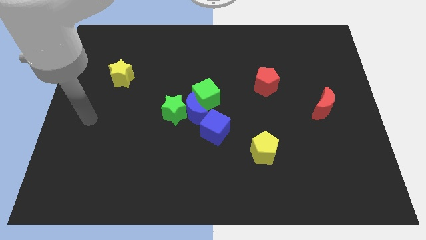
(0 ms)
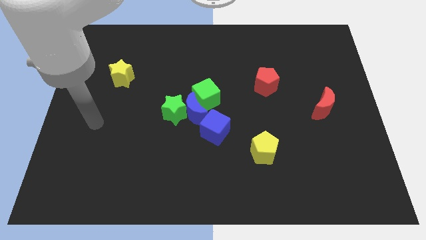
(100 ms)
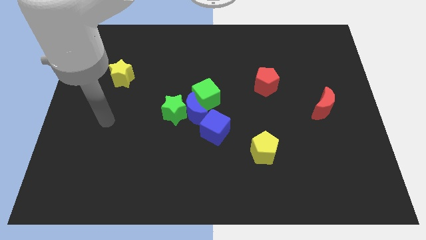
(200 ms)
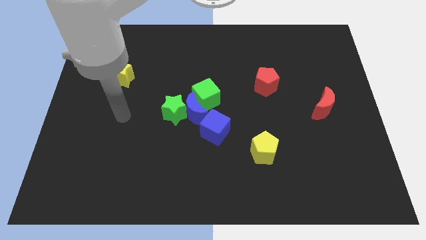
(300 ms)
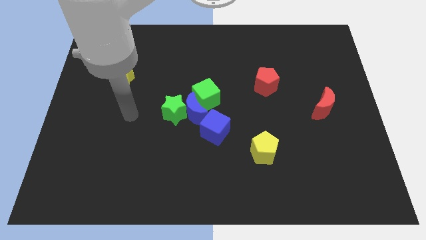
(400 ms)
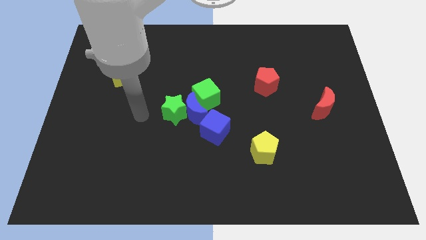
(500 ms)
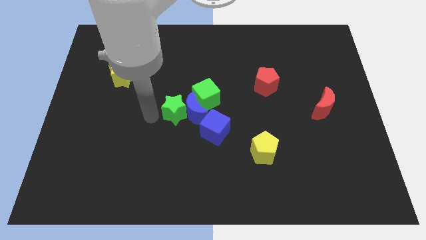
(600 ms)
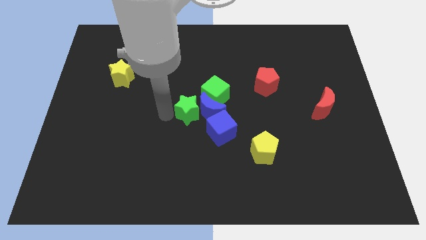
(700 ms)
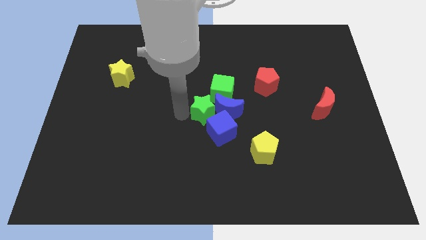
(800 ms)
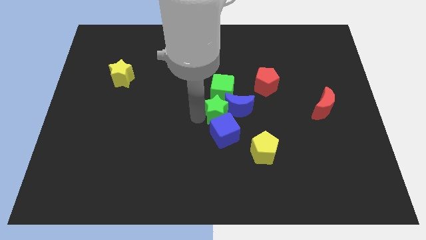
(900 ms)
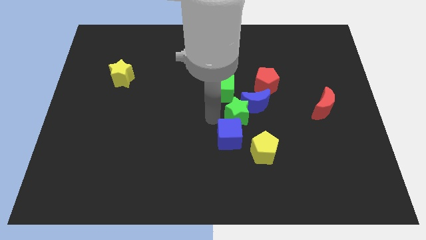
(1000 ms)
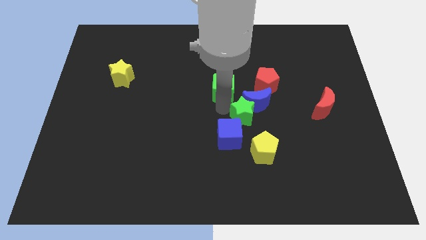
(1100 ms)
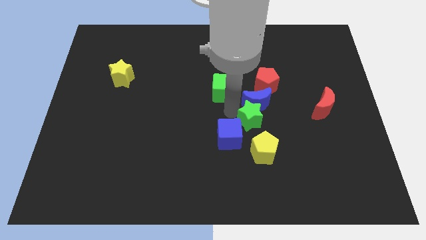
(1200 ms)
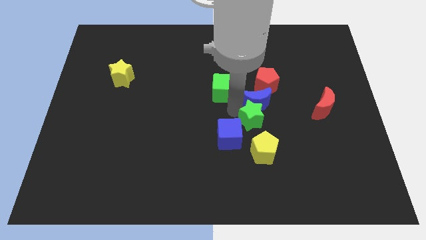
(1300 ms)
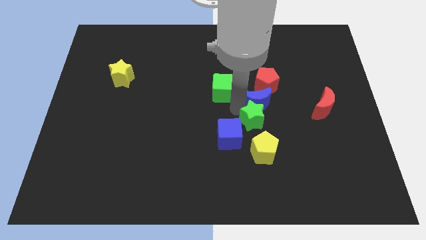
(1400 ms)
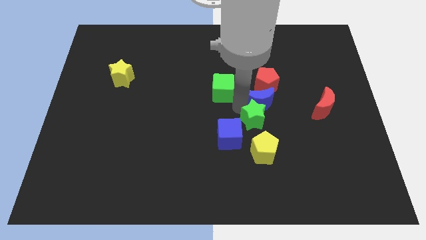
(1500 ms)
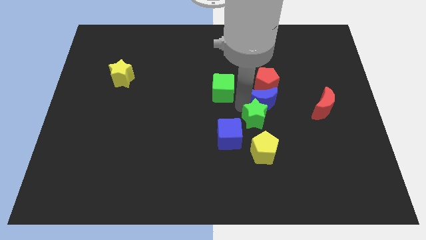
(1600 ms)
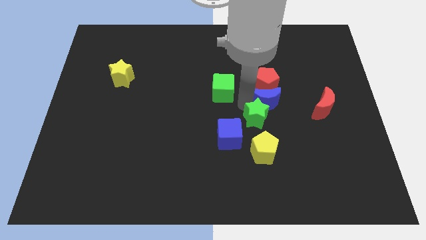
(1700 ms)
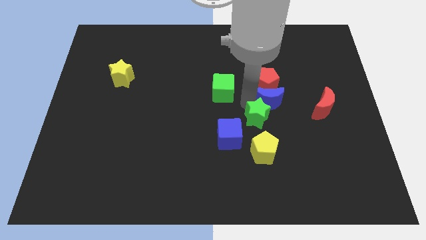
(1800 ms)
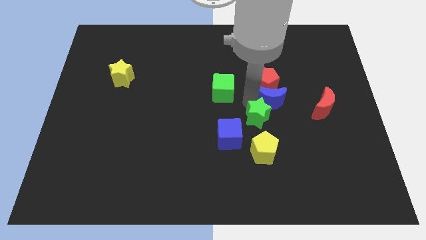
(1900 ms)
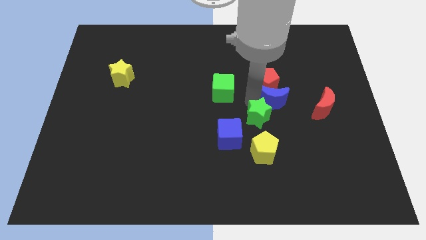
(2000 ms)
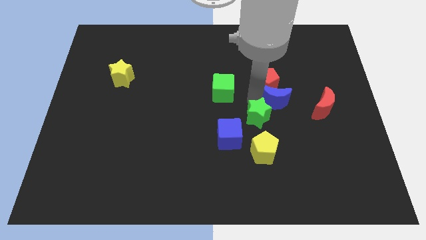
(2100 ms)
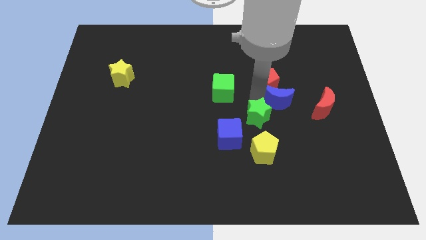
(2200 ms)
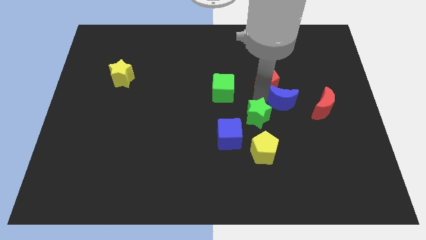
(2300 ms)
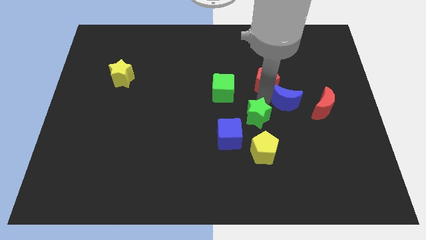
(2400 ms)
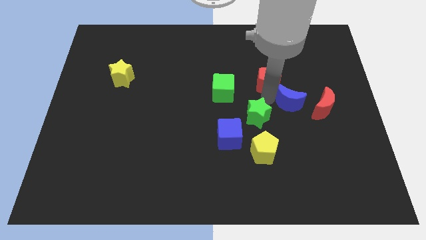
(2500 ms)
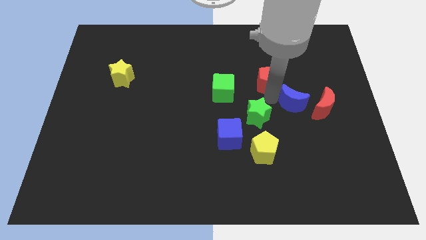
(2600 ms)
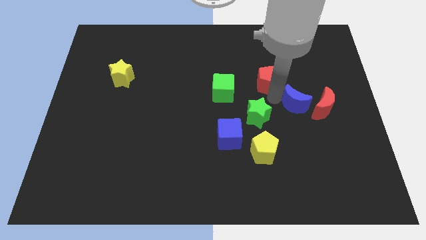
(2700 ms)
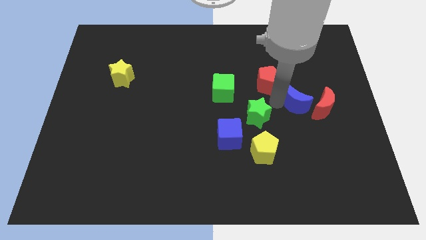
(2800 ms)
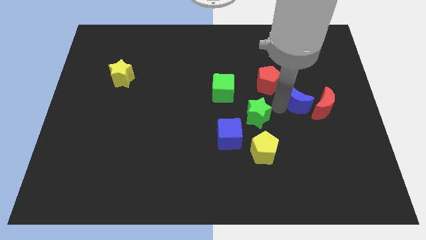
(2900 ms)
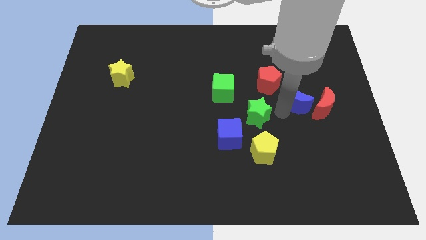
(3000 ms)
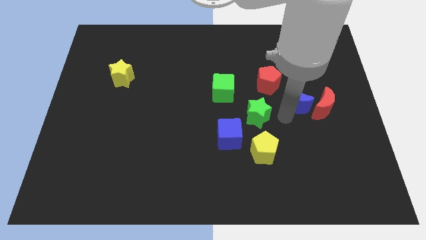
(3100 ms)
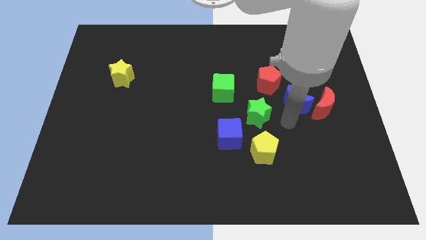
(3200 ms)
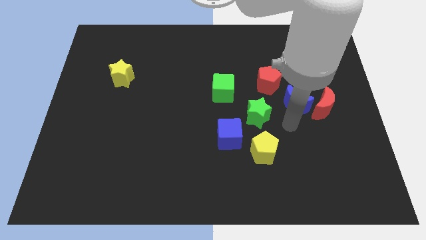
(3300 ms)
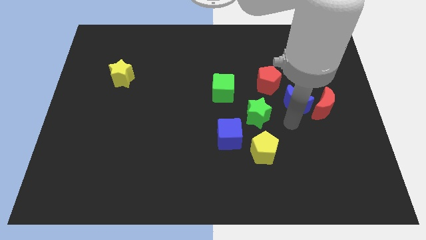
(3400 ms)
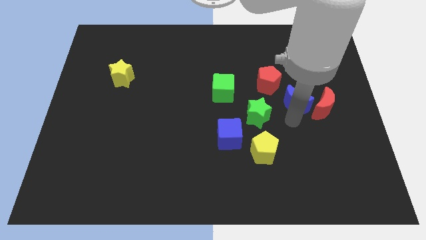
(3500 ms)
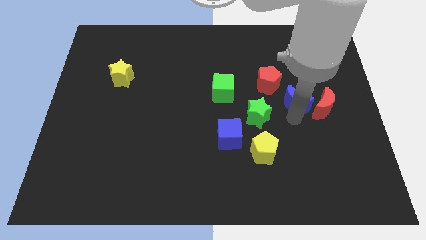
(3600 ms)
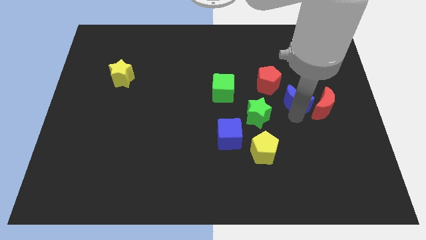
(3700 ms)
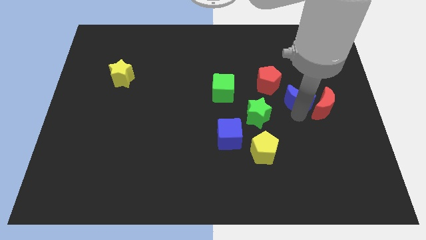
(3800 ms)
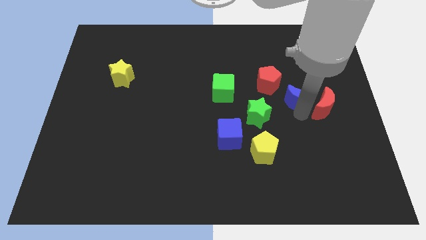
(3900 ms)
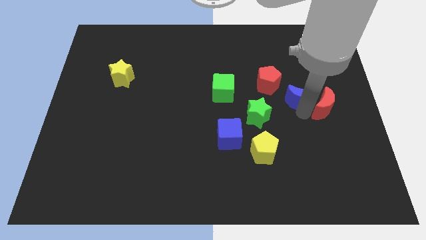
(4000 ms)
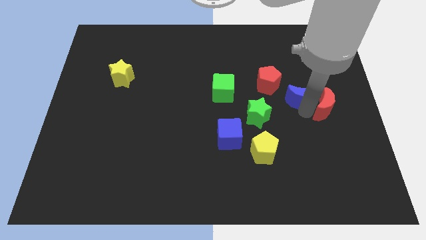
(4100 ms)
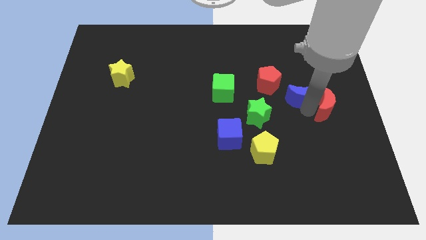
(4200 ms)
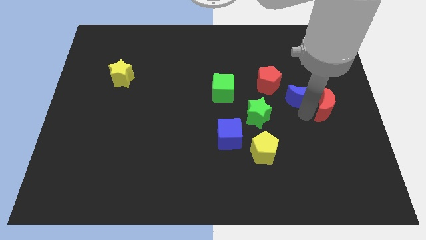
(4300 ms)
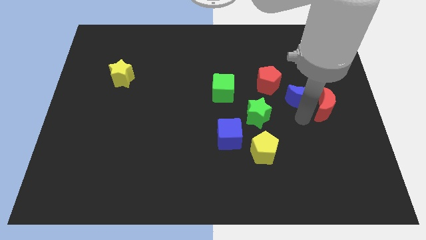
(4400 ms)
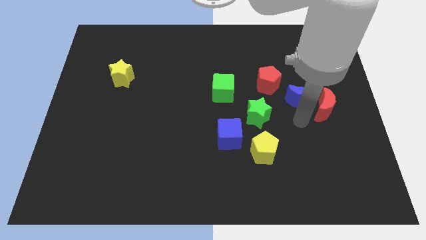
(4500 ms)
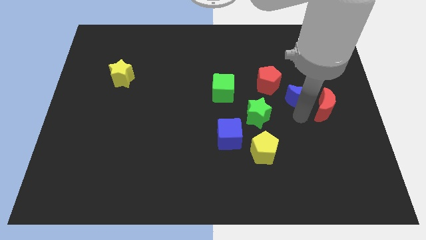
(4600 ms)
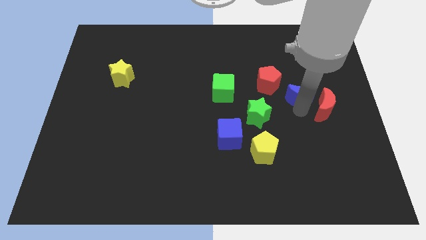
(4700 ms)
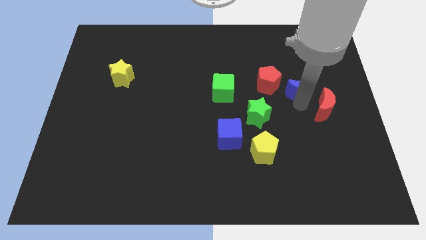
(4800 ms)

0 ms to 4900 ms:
move the blue moon to the top side of the red moon

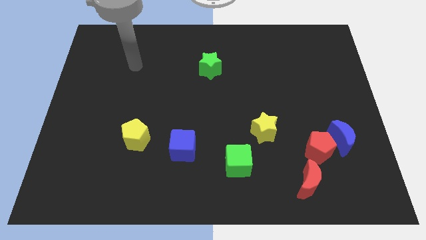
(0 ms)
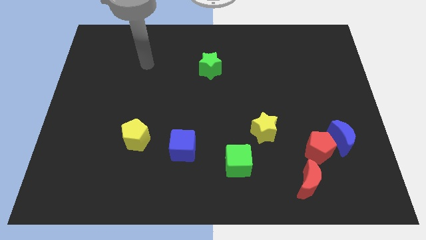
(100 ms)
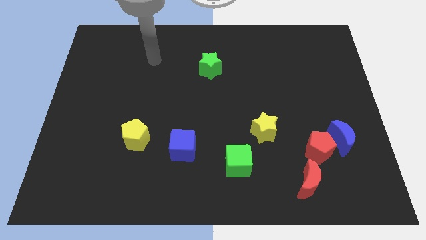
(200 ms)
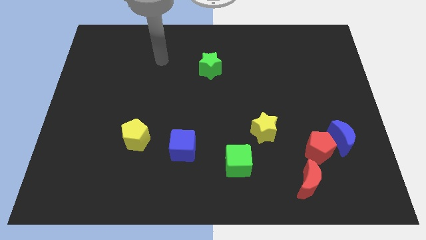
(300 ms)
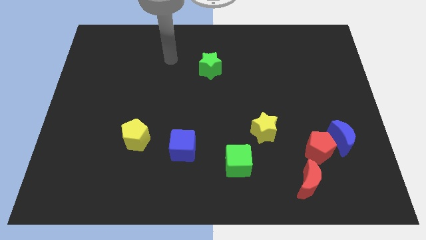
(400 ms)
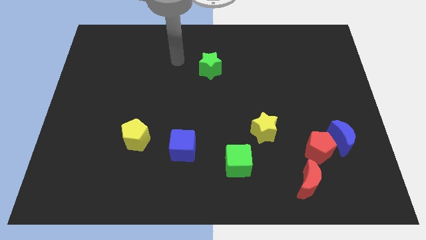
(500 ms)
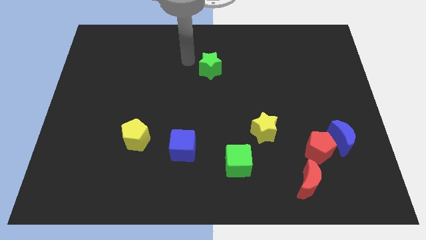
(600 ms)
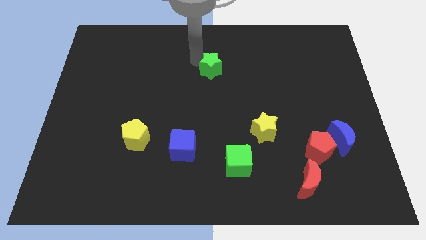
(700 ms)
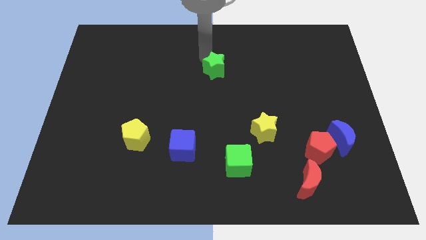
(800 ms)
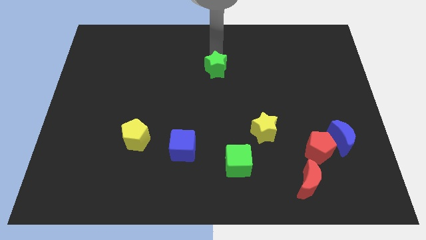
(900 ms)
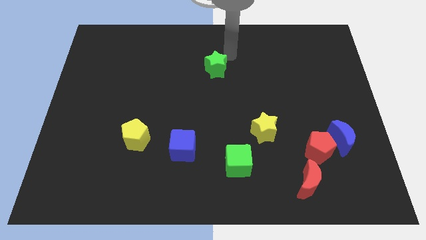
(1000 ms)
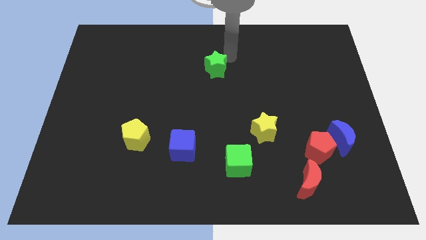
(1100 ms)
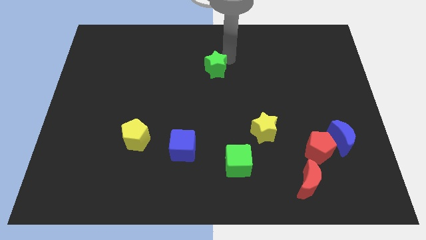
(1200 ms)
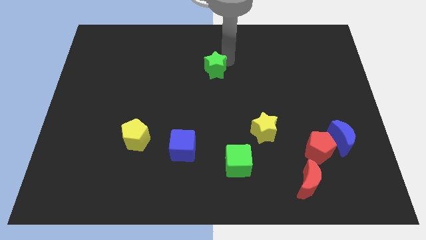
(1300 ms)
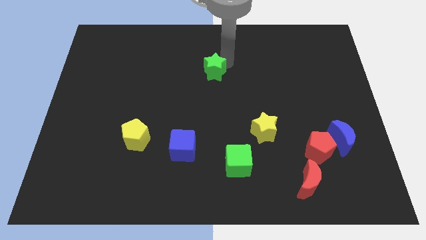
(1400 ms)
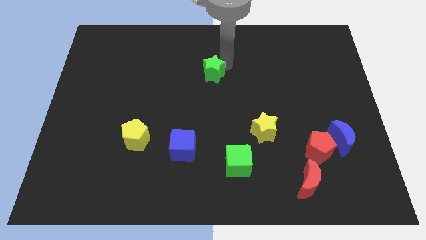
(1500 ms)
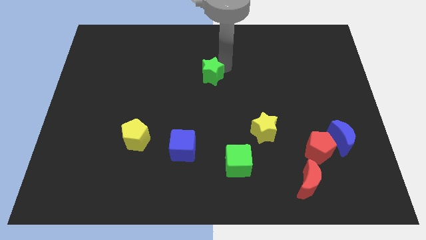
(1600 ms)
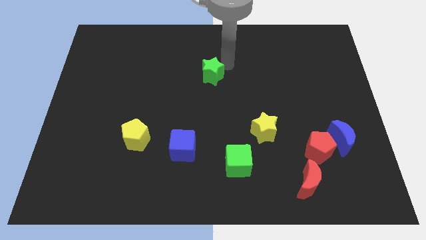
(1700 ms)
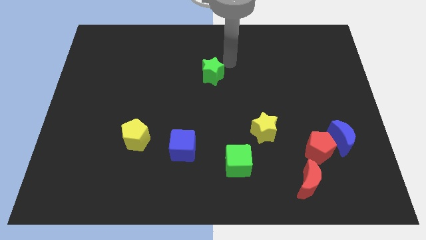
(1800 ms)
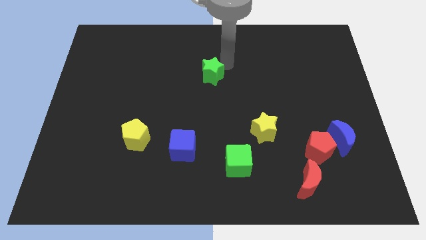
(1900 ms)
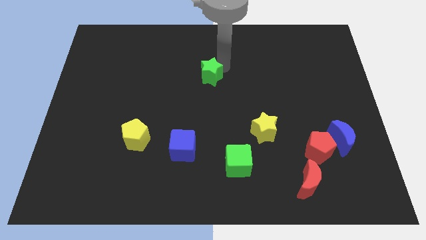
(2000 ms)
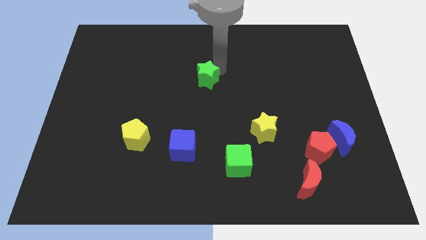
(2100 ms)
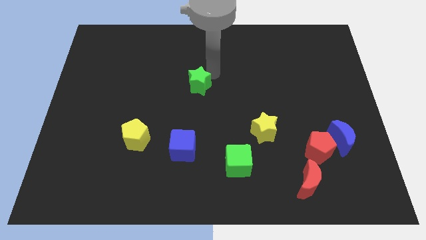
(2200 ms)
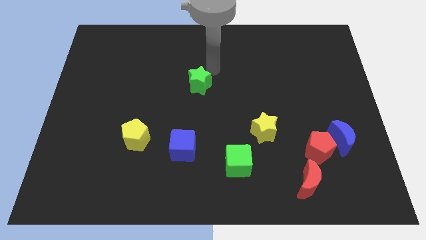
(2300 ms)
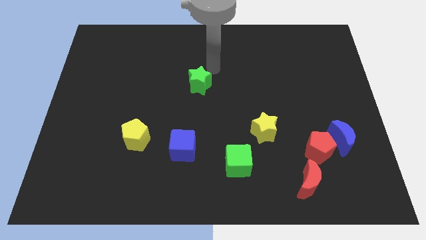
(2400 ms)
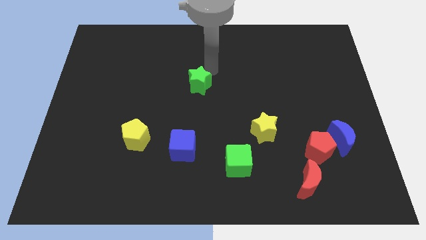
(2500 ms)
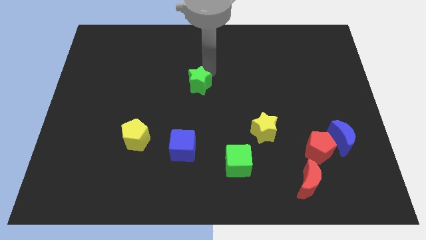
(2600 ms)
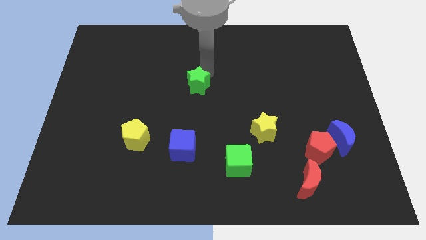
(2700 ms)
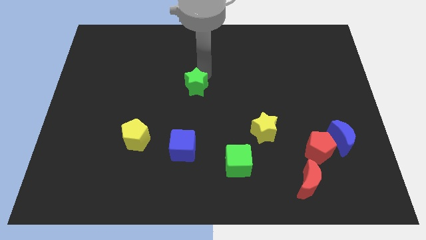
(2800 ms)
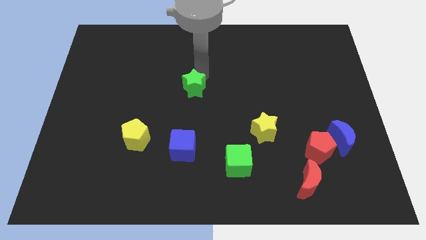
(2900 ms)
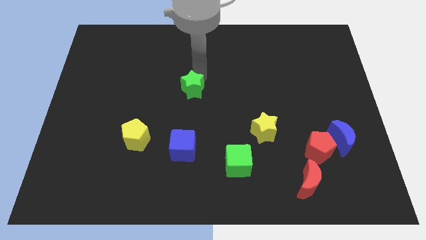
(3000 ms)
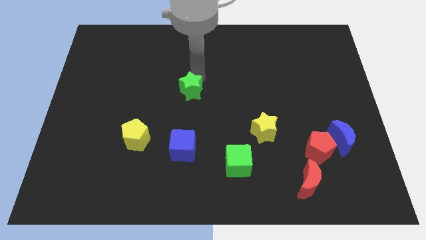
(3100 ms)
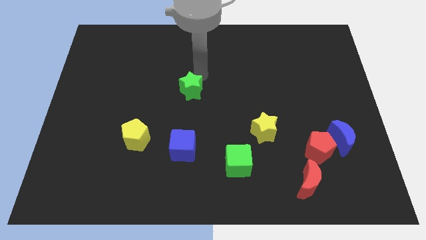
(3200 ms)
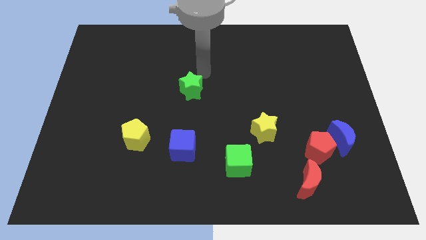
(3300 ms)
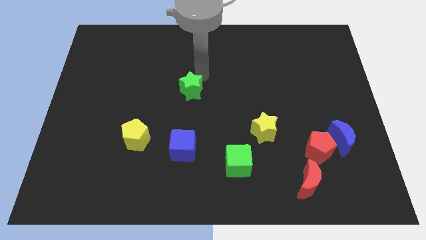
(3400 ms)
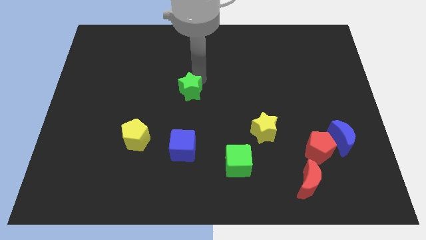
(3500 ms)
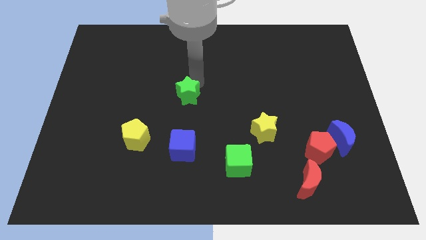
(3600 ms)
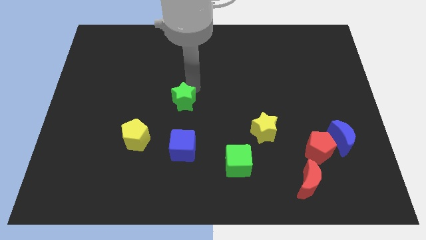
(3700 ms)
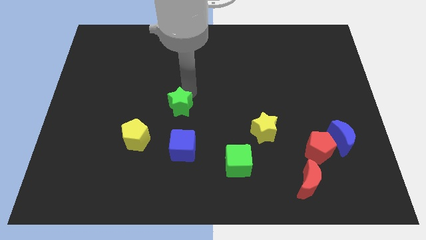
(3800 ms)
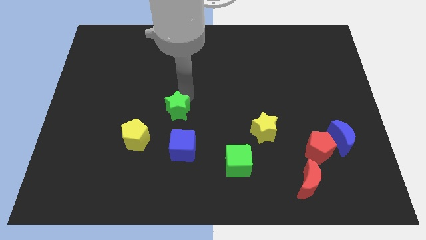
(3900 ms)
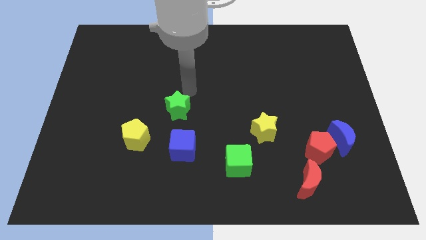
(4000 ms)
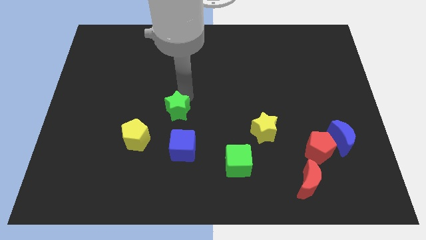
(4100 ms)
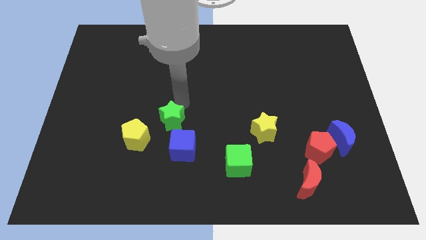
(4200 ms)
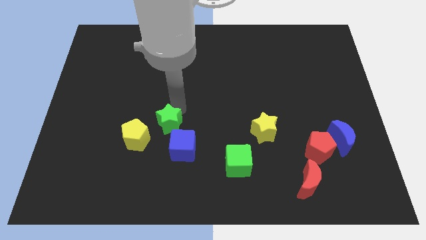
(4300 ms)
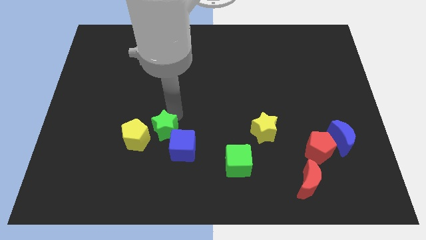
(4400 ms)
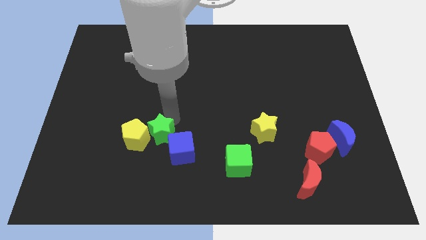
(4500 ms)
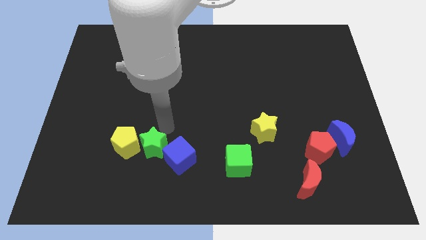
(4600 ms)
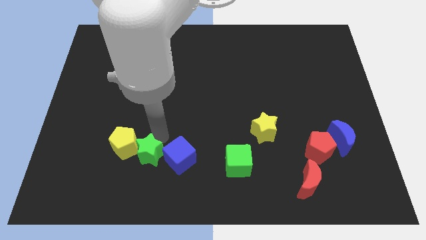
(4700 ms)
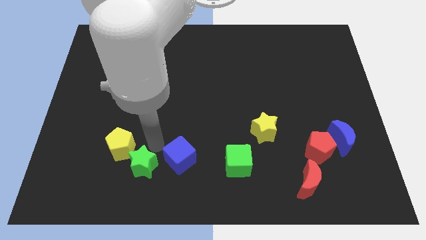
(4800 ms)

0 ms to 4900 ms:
slide the green star to the bottom side of the yellow pentagon
